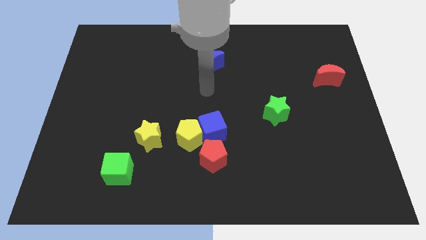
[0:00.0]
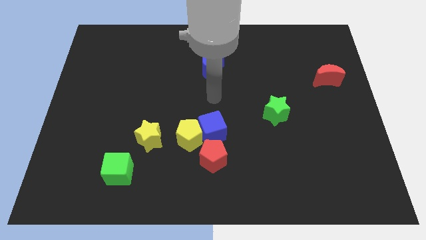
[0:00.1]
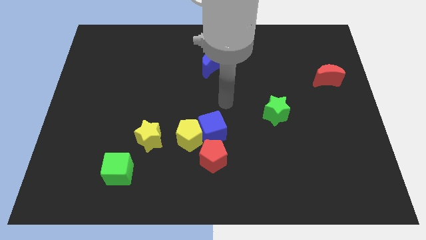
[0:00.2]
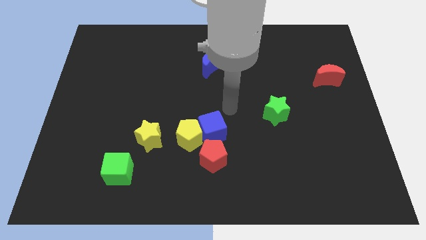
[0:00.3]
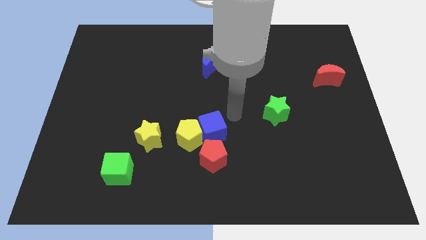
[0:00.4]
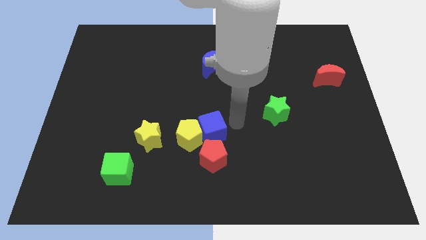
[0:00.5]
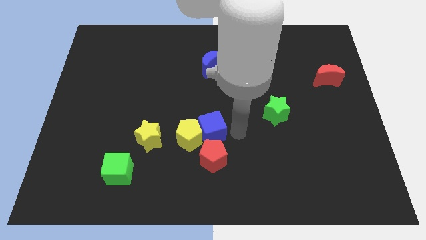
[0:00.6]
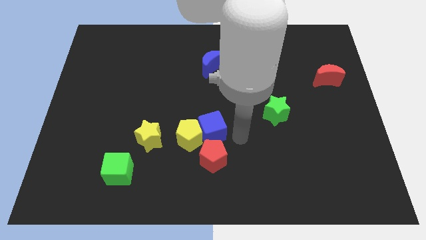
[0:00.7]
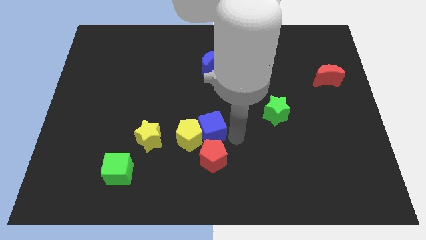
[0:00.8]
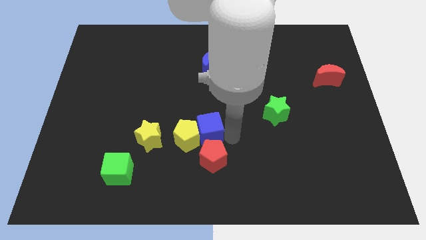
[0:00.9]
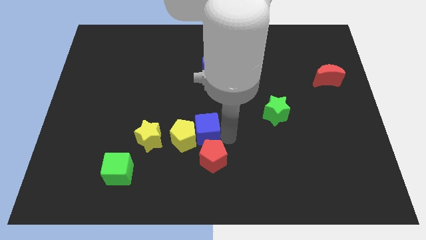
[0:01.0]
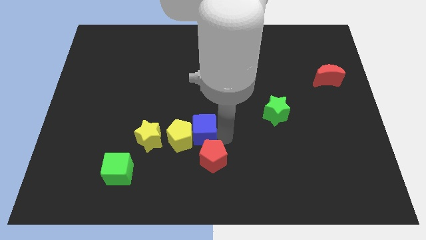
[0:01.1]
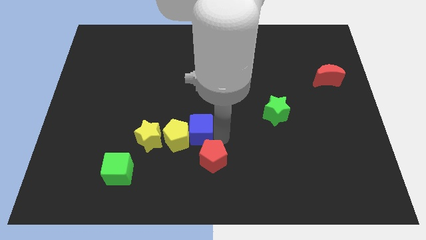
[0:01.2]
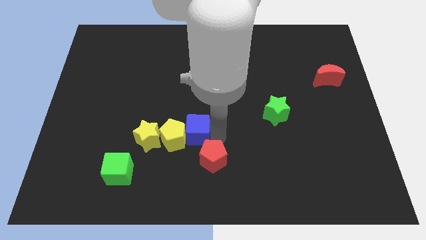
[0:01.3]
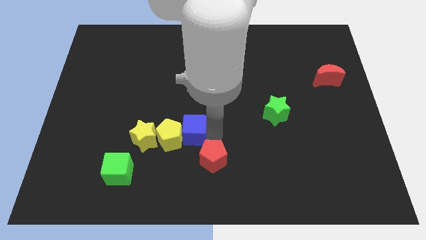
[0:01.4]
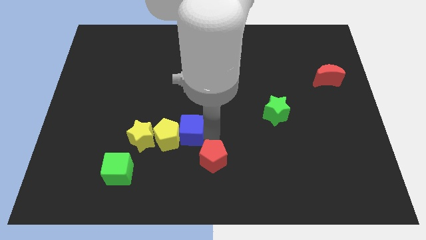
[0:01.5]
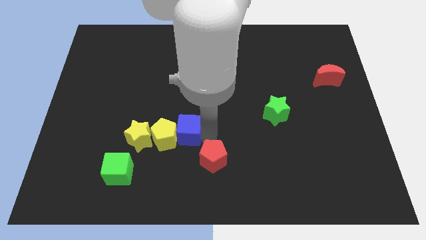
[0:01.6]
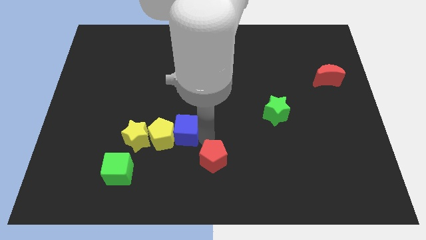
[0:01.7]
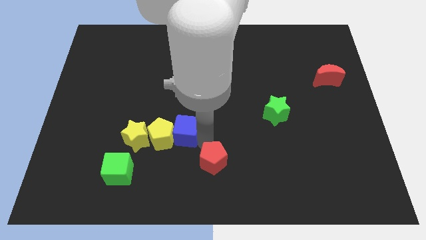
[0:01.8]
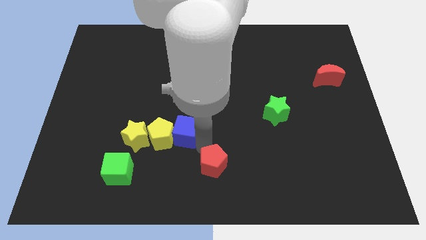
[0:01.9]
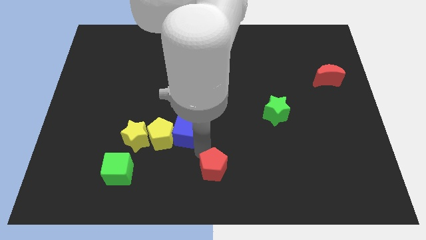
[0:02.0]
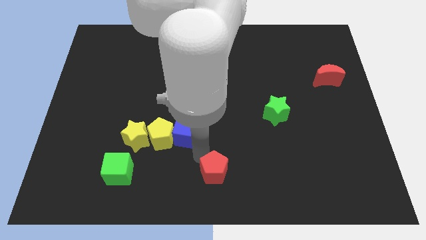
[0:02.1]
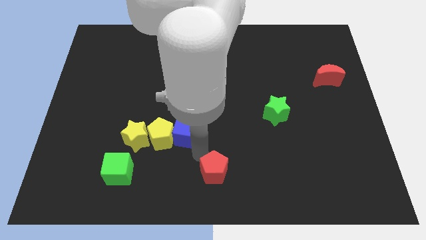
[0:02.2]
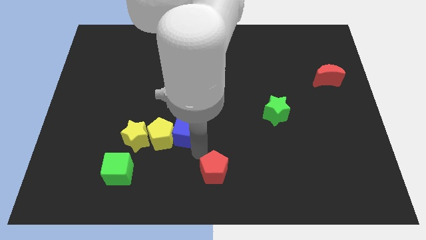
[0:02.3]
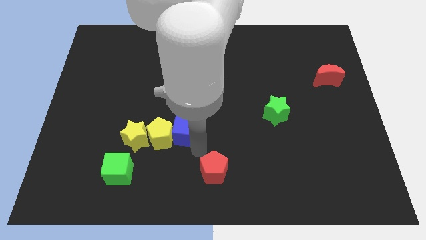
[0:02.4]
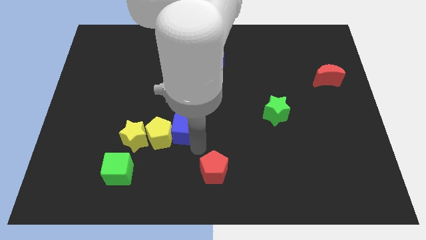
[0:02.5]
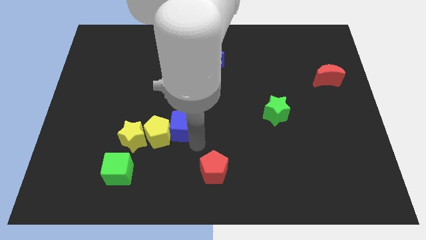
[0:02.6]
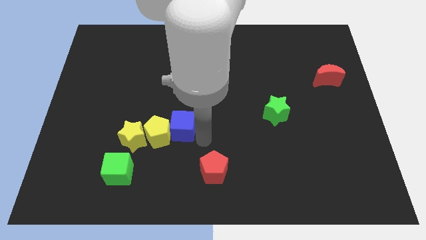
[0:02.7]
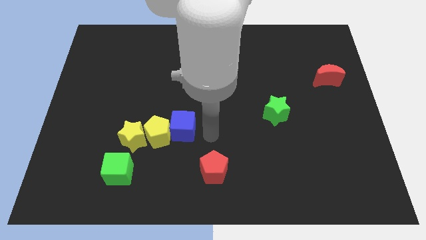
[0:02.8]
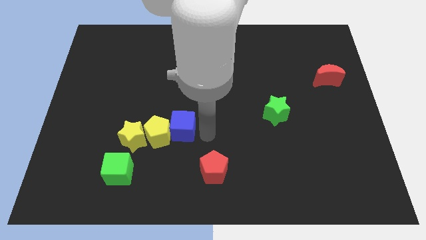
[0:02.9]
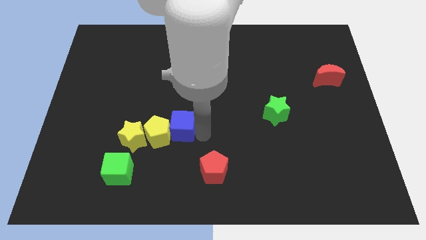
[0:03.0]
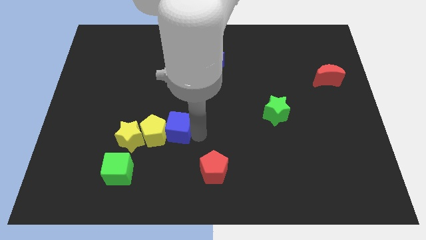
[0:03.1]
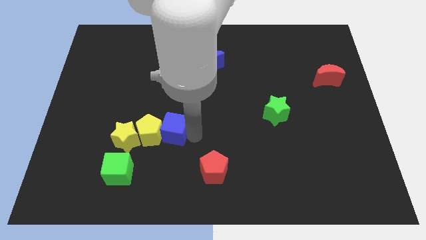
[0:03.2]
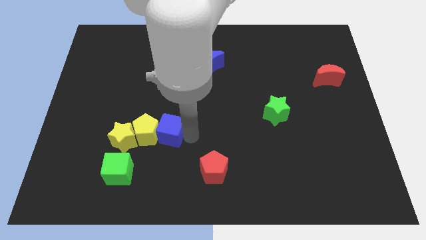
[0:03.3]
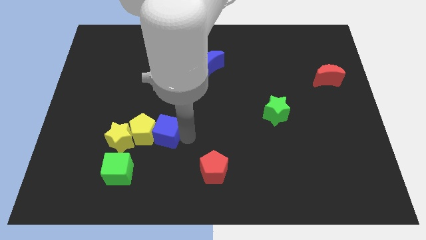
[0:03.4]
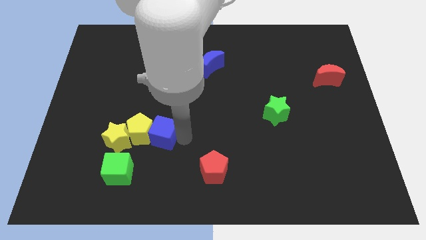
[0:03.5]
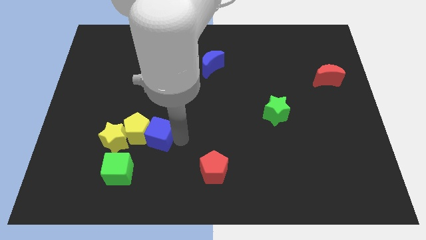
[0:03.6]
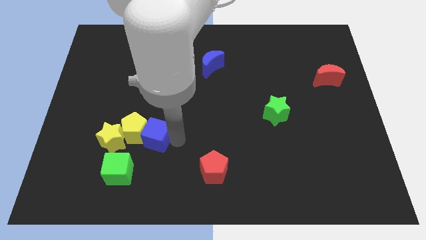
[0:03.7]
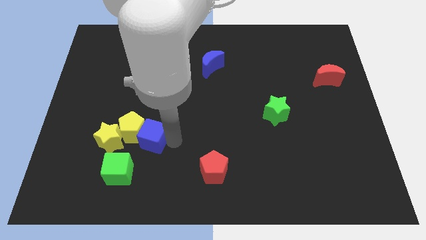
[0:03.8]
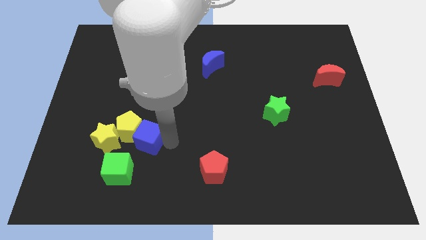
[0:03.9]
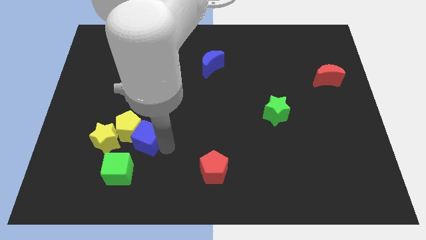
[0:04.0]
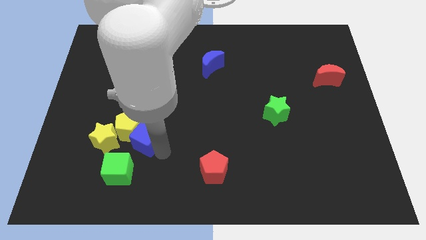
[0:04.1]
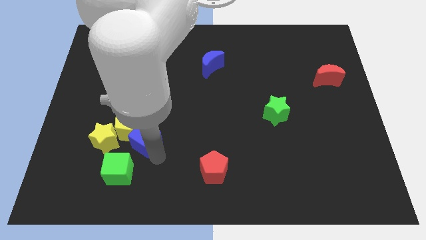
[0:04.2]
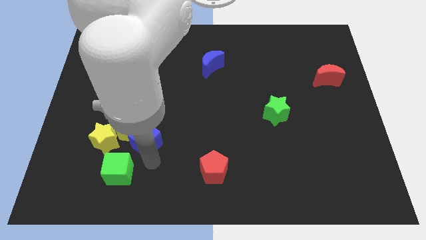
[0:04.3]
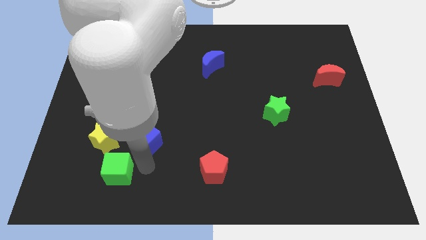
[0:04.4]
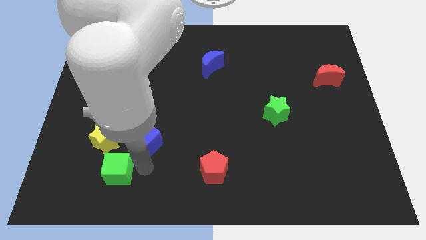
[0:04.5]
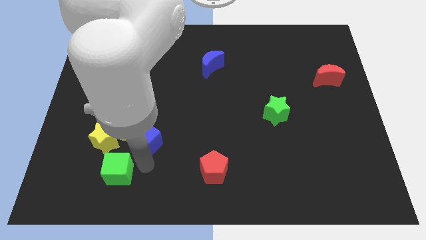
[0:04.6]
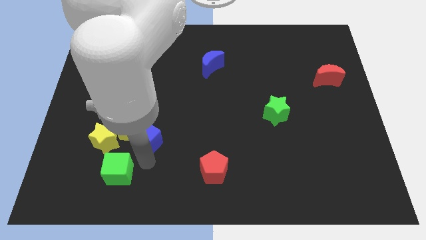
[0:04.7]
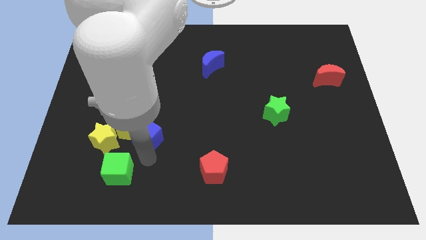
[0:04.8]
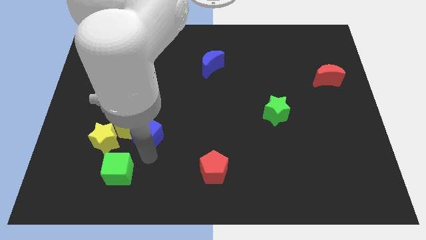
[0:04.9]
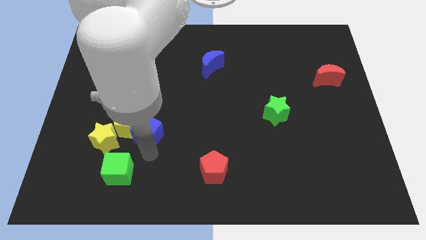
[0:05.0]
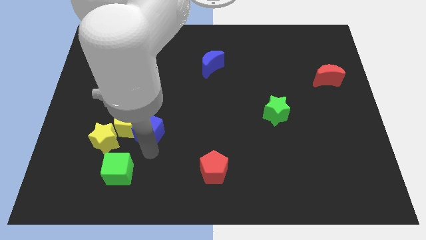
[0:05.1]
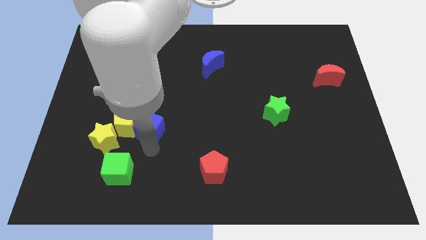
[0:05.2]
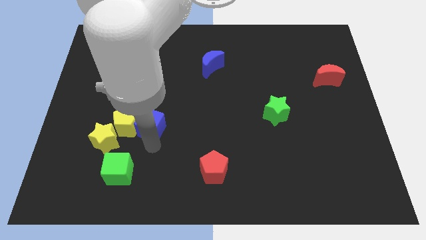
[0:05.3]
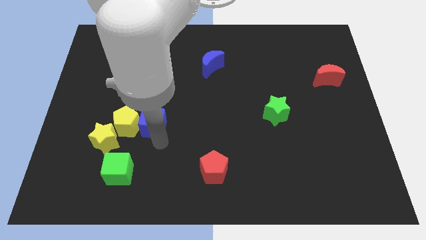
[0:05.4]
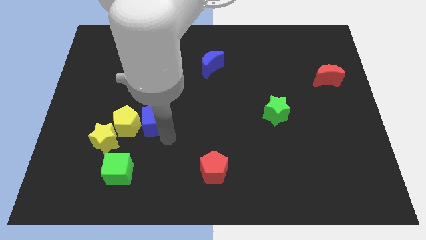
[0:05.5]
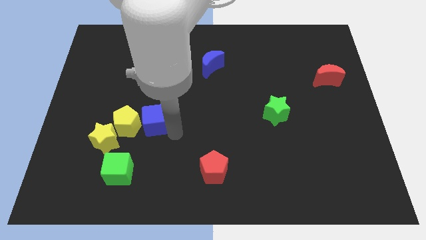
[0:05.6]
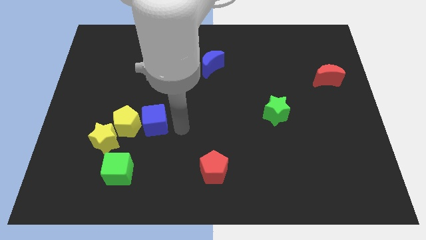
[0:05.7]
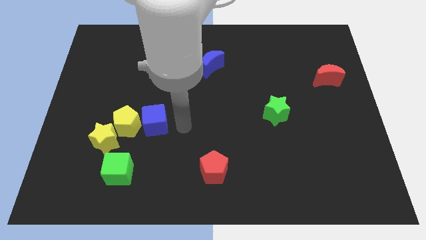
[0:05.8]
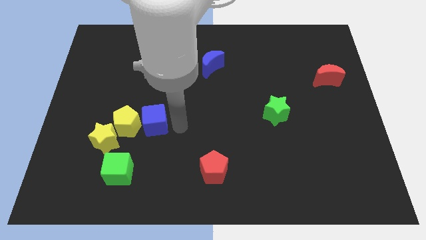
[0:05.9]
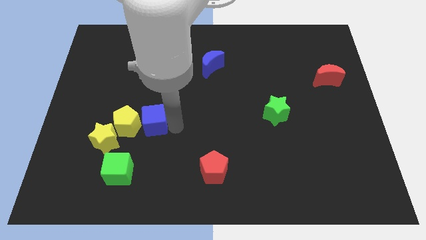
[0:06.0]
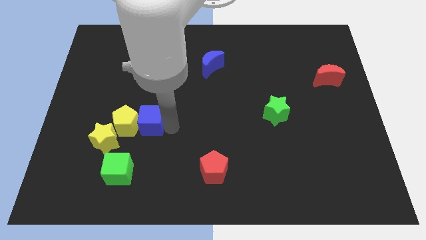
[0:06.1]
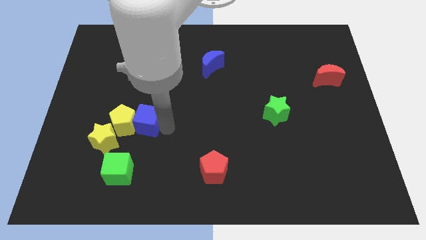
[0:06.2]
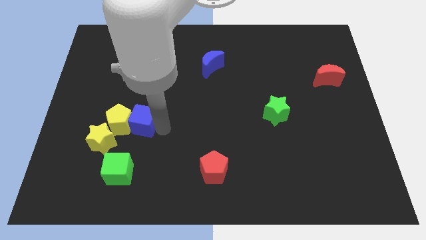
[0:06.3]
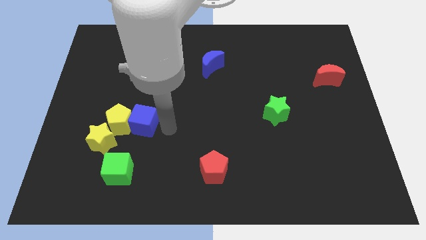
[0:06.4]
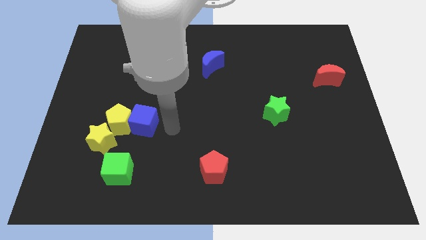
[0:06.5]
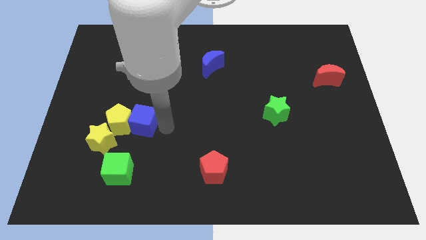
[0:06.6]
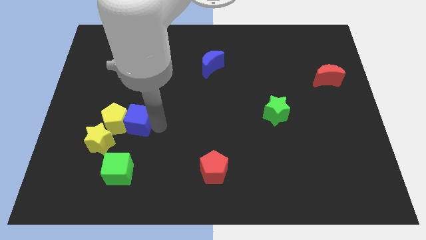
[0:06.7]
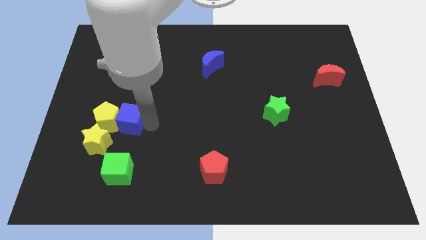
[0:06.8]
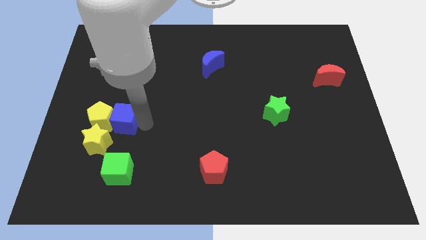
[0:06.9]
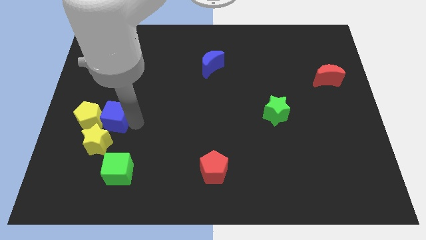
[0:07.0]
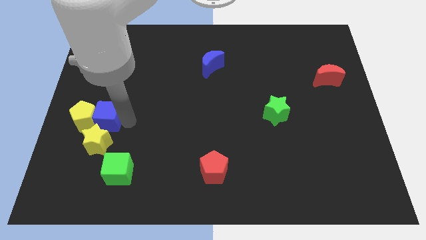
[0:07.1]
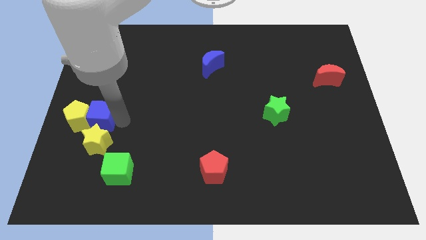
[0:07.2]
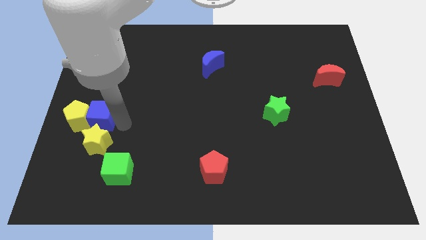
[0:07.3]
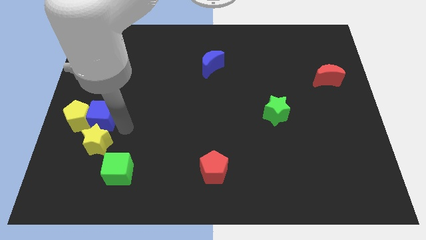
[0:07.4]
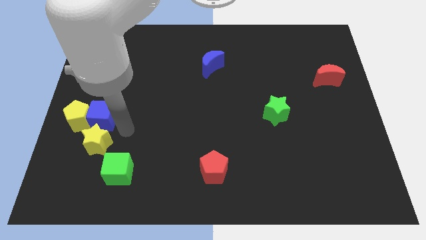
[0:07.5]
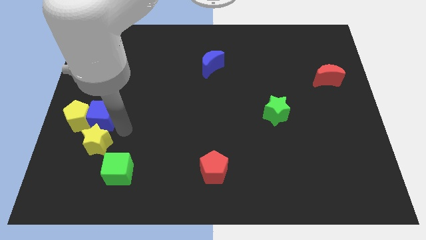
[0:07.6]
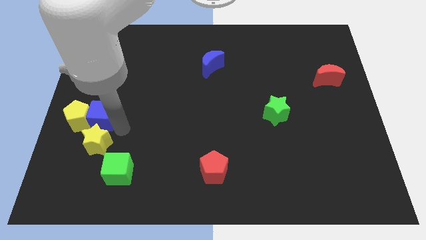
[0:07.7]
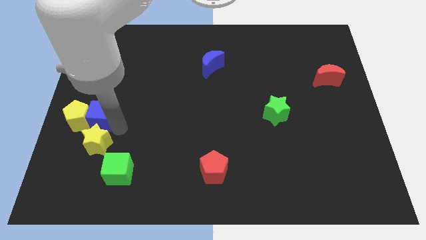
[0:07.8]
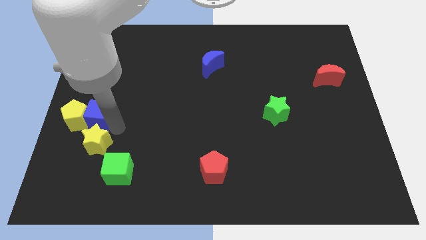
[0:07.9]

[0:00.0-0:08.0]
put the blue cube to the left side
